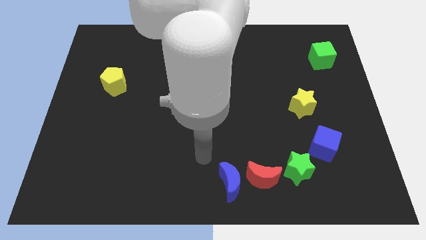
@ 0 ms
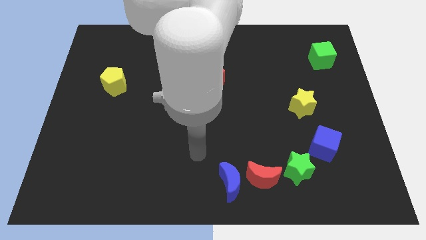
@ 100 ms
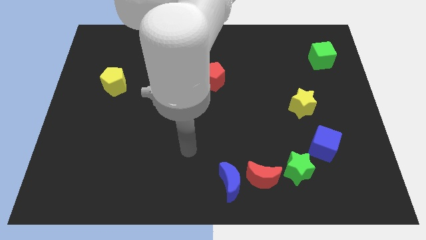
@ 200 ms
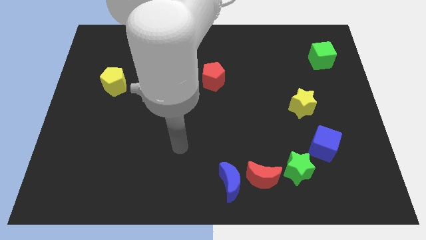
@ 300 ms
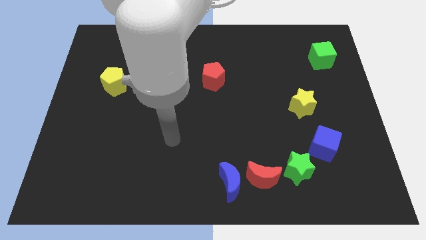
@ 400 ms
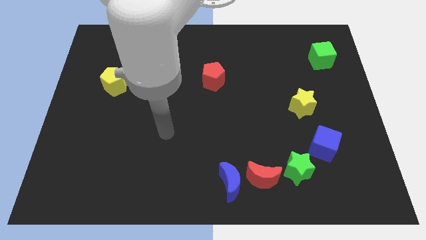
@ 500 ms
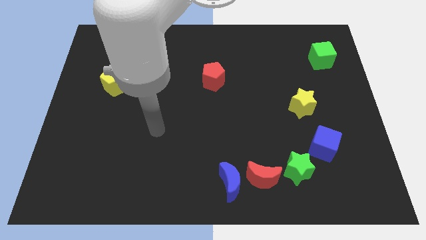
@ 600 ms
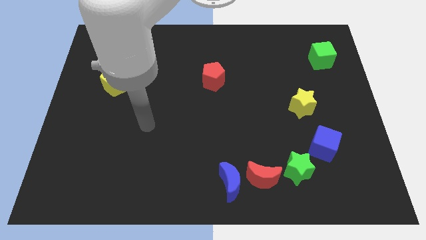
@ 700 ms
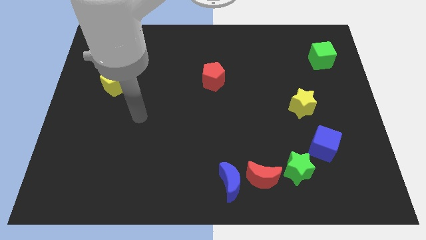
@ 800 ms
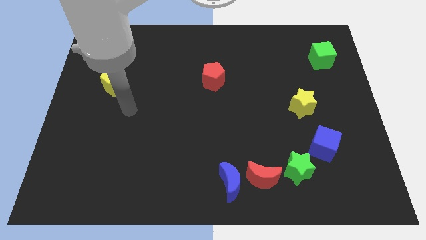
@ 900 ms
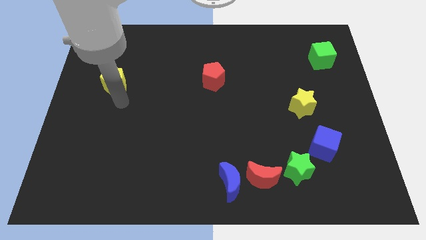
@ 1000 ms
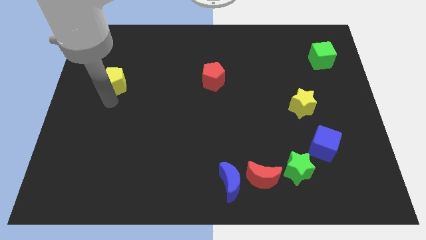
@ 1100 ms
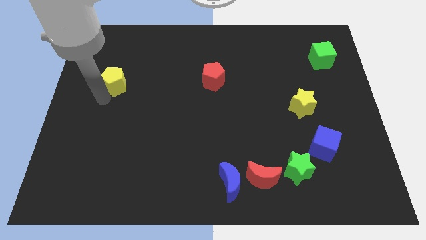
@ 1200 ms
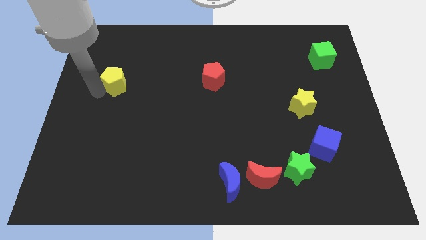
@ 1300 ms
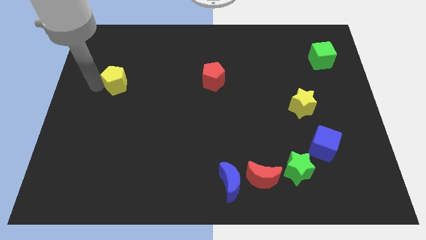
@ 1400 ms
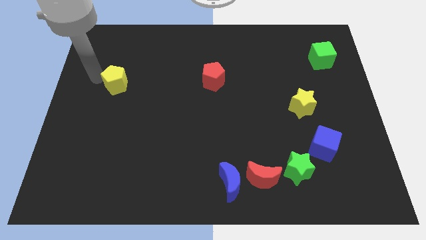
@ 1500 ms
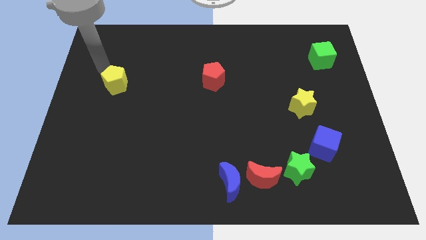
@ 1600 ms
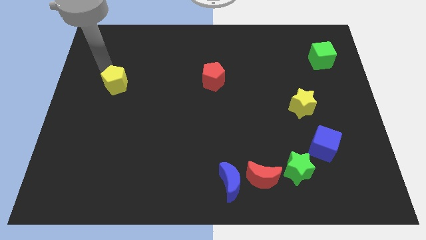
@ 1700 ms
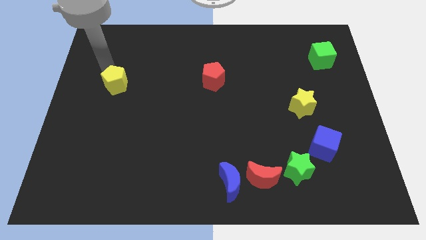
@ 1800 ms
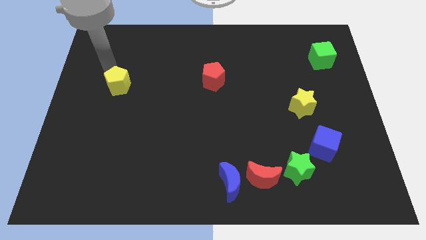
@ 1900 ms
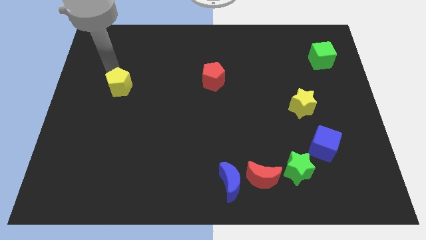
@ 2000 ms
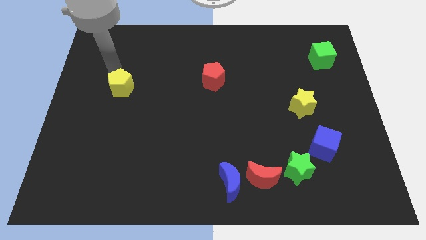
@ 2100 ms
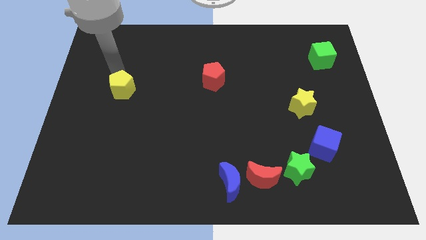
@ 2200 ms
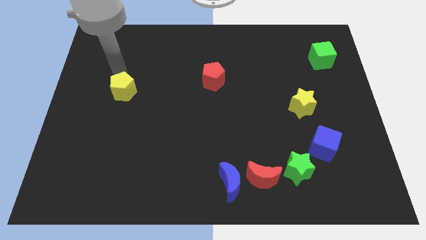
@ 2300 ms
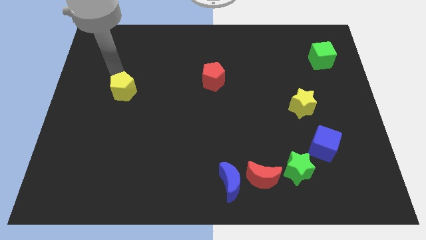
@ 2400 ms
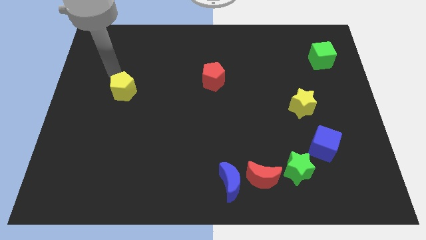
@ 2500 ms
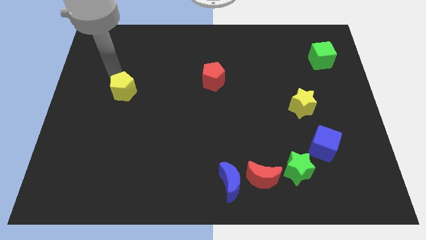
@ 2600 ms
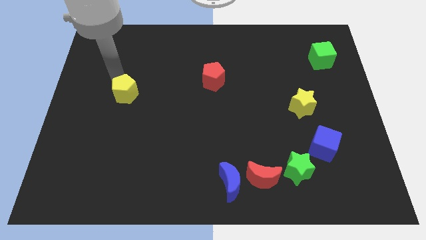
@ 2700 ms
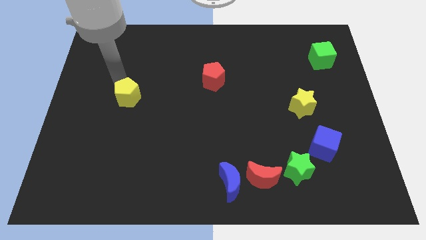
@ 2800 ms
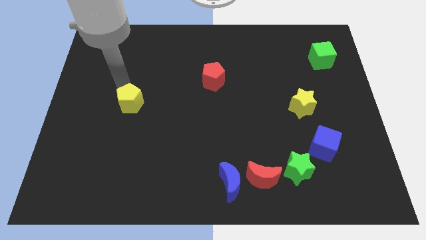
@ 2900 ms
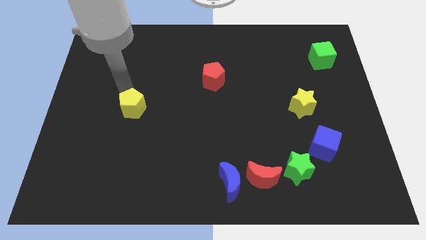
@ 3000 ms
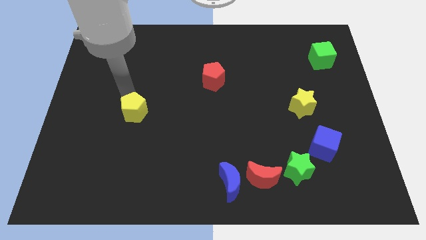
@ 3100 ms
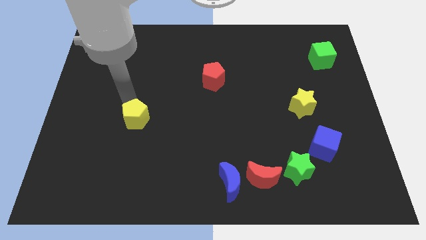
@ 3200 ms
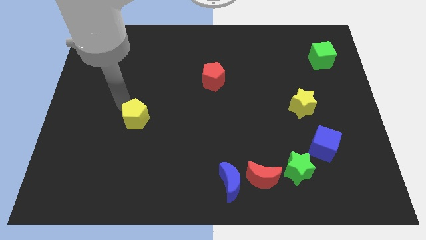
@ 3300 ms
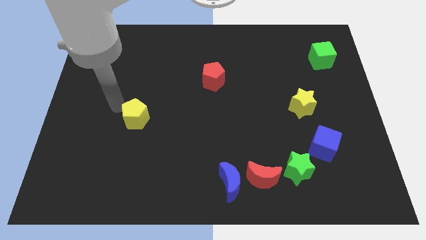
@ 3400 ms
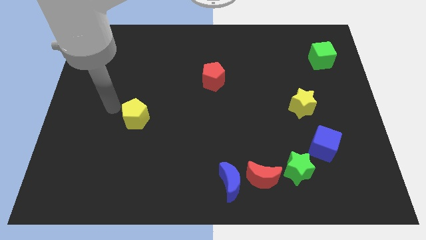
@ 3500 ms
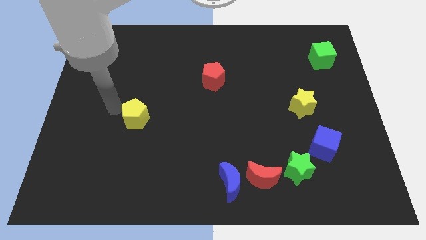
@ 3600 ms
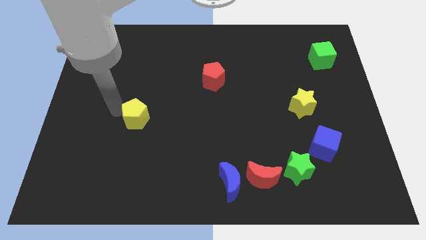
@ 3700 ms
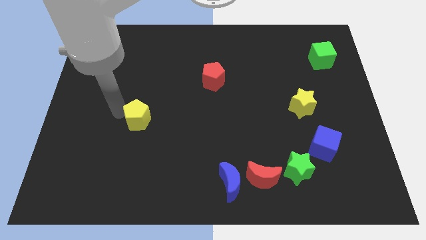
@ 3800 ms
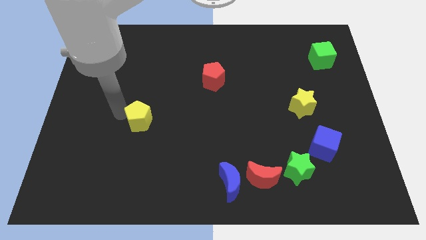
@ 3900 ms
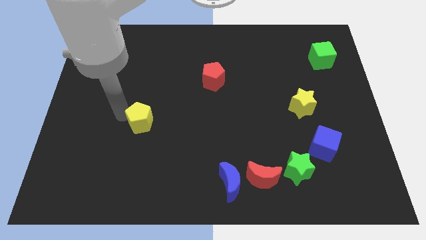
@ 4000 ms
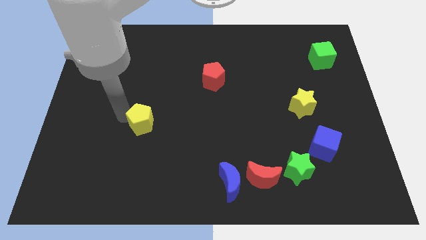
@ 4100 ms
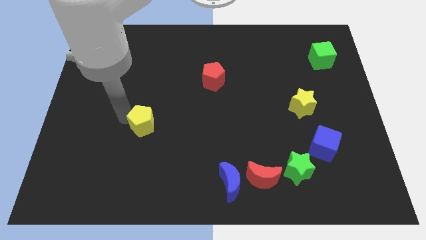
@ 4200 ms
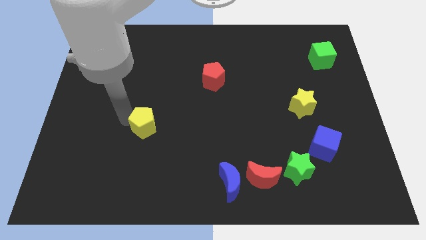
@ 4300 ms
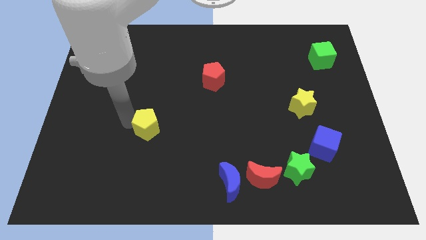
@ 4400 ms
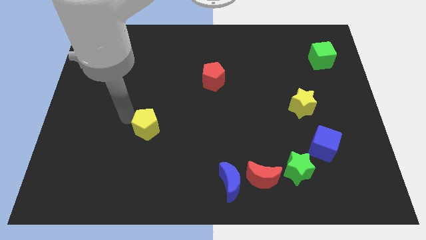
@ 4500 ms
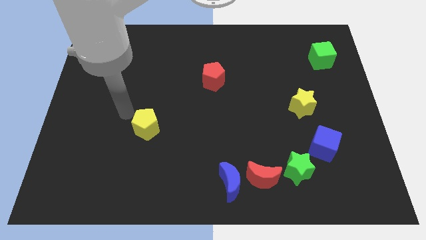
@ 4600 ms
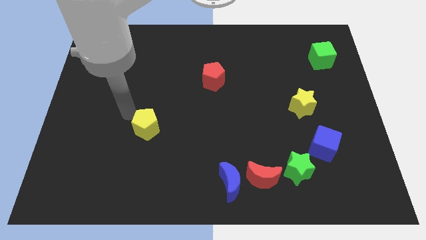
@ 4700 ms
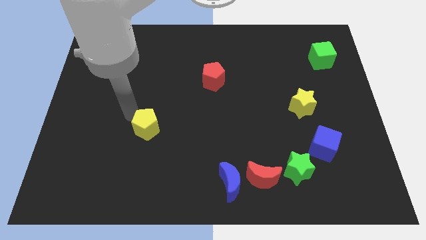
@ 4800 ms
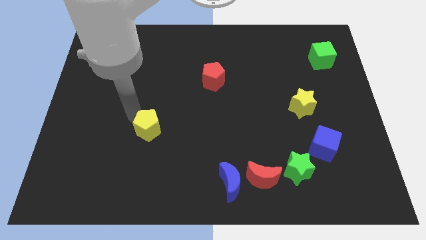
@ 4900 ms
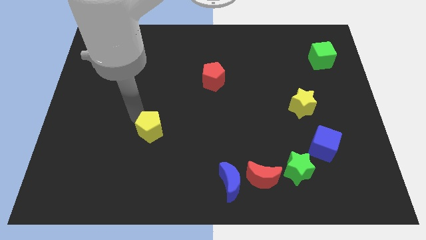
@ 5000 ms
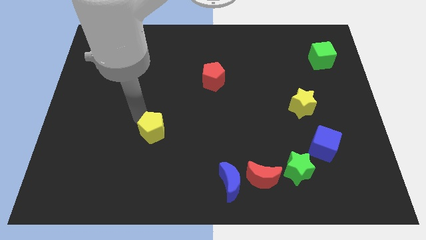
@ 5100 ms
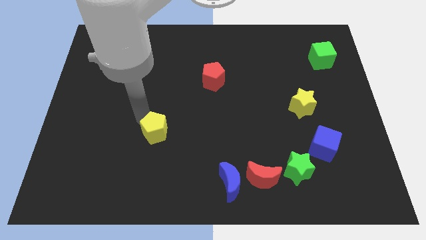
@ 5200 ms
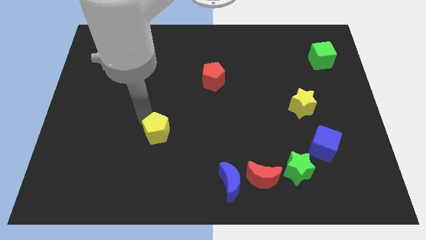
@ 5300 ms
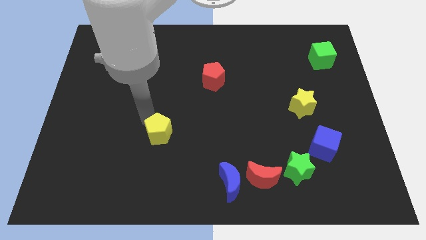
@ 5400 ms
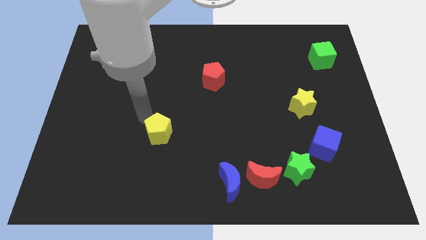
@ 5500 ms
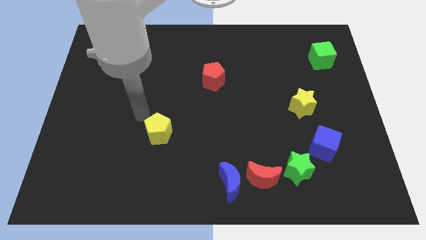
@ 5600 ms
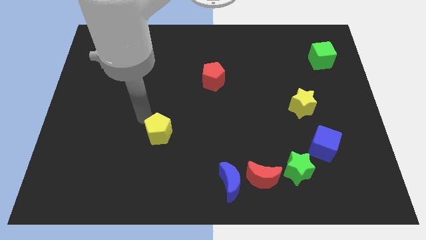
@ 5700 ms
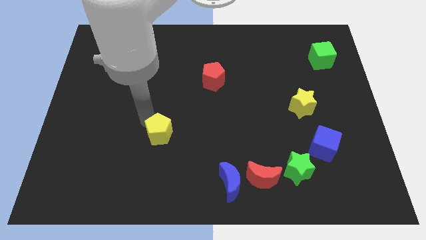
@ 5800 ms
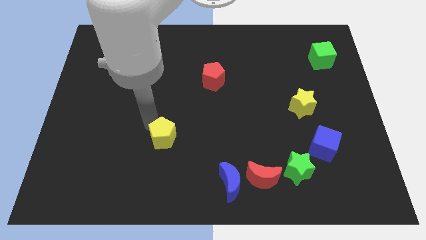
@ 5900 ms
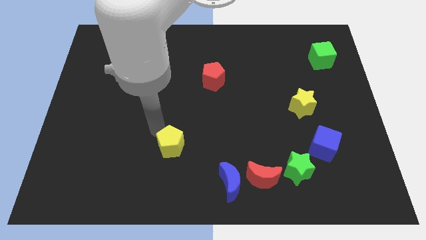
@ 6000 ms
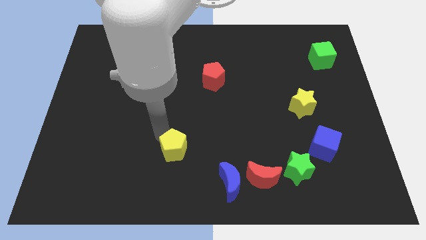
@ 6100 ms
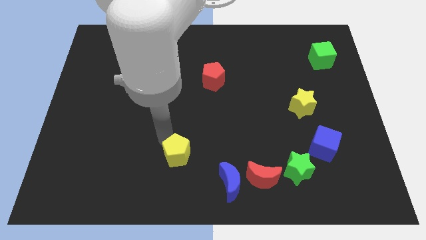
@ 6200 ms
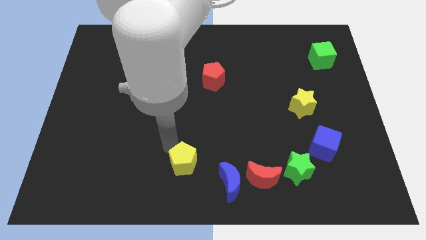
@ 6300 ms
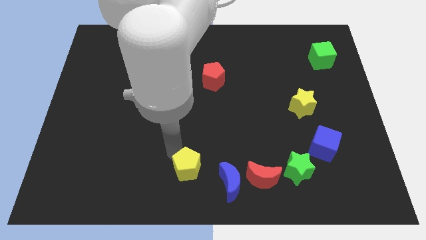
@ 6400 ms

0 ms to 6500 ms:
put the yellow pentagon left of the red moon

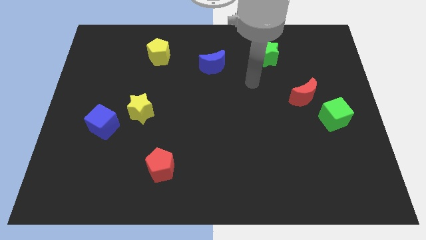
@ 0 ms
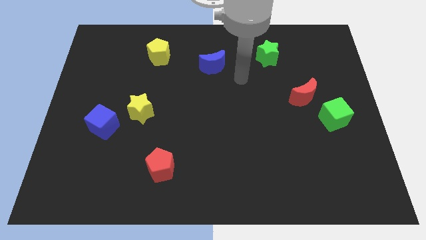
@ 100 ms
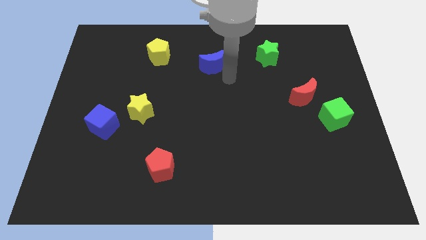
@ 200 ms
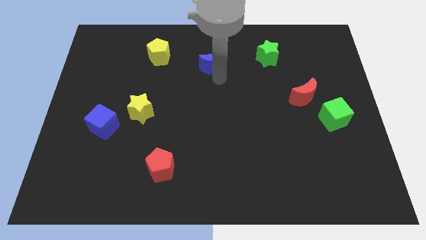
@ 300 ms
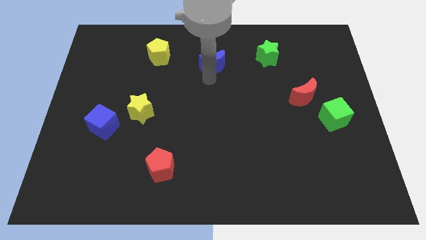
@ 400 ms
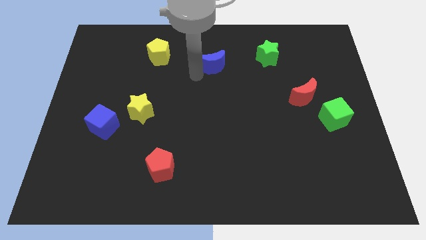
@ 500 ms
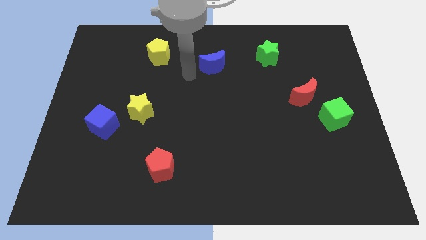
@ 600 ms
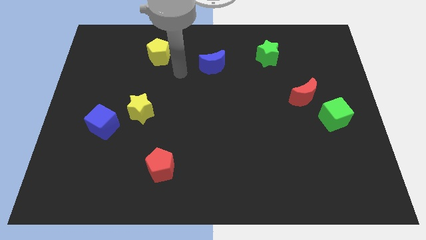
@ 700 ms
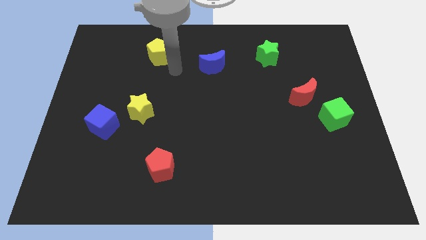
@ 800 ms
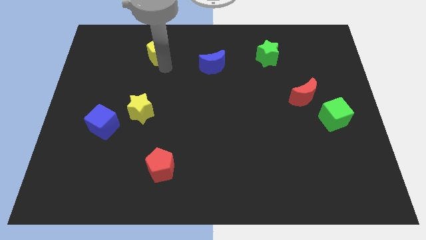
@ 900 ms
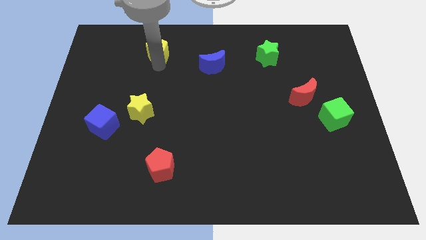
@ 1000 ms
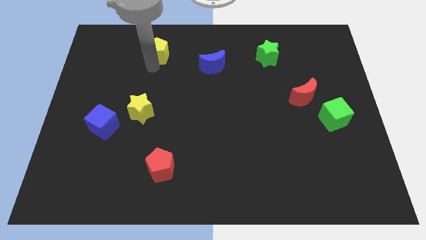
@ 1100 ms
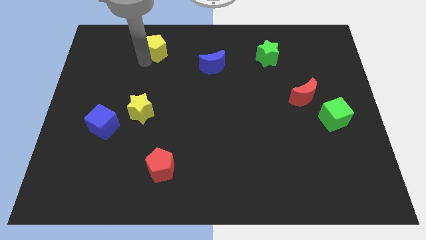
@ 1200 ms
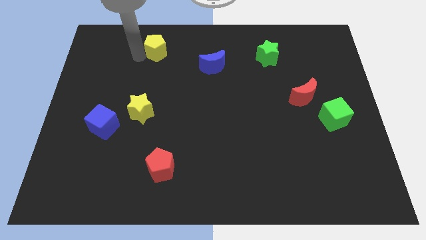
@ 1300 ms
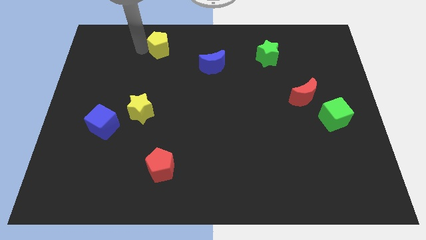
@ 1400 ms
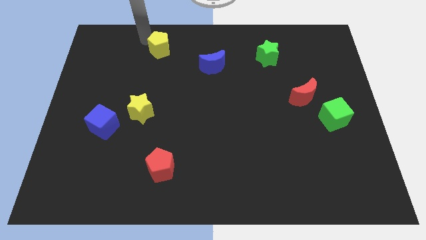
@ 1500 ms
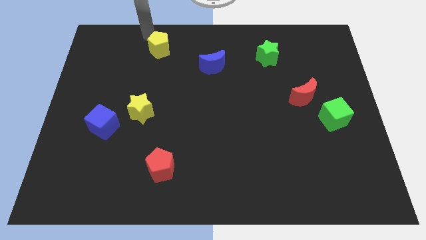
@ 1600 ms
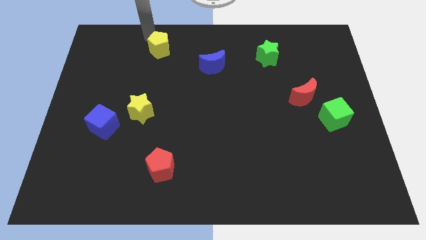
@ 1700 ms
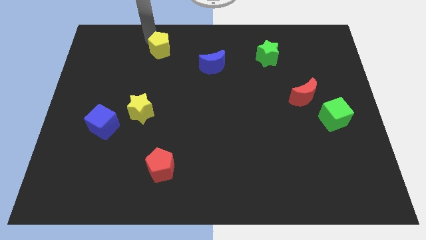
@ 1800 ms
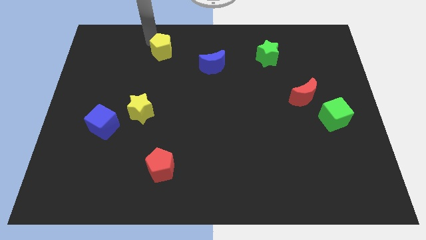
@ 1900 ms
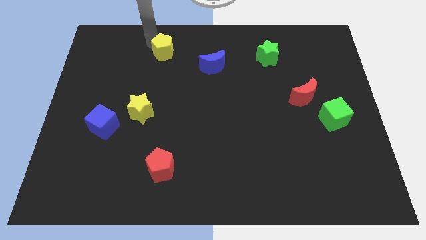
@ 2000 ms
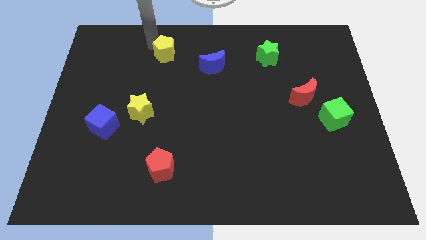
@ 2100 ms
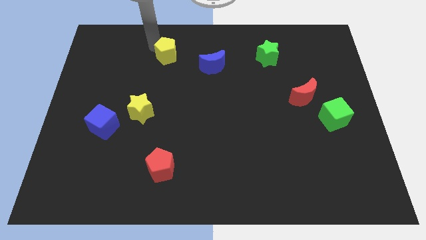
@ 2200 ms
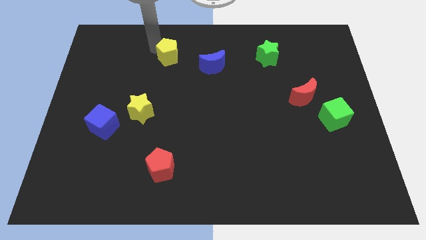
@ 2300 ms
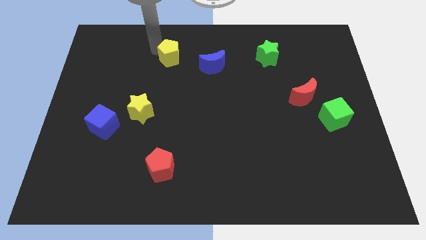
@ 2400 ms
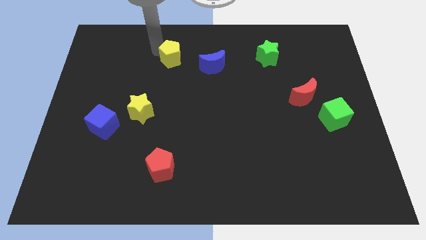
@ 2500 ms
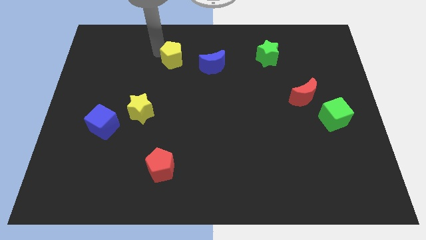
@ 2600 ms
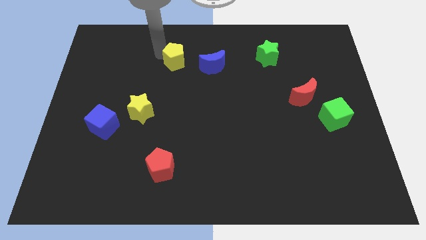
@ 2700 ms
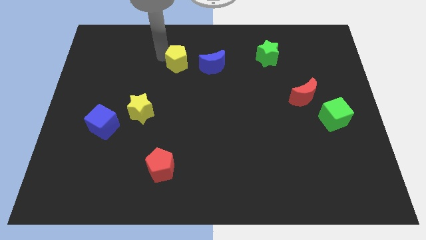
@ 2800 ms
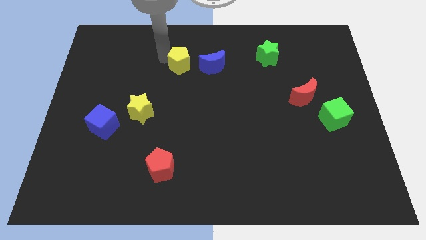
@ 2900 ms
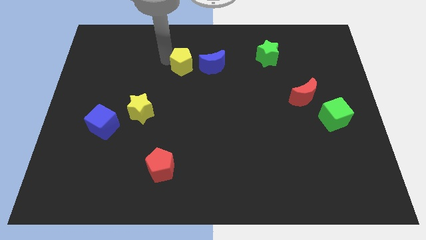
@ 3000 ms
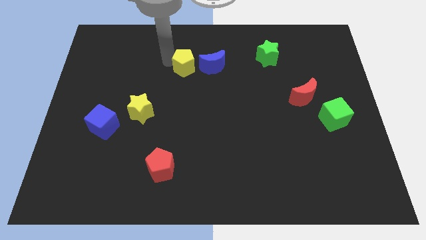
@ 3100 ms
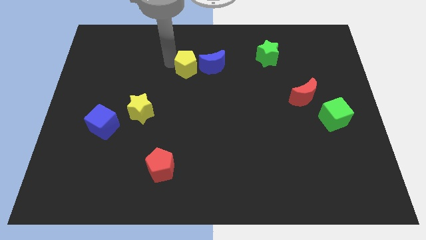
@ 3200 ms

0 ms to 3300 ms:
move the yellow pentagon diagonally down and to the left of the blue moon
